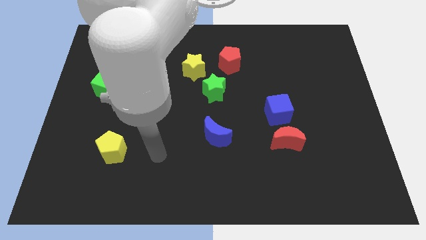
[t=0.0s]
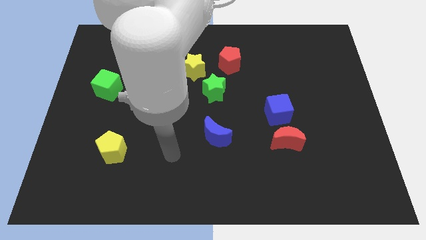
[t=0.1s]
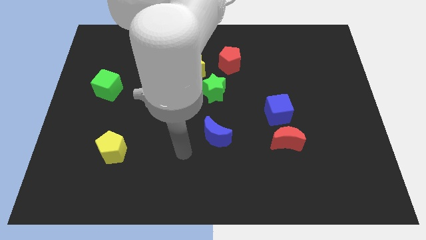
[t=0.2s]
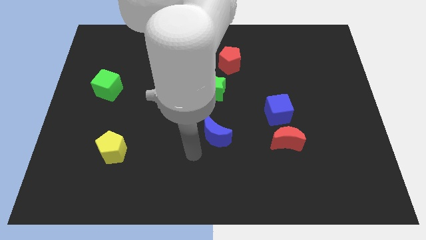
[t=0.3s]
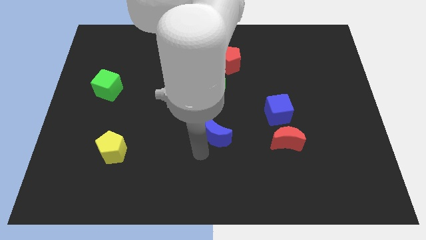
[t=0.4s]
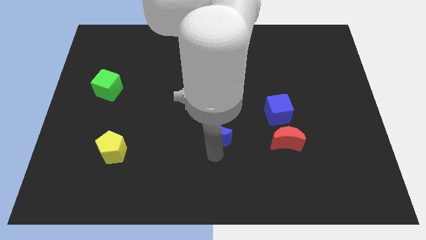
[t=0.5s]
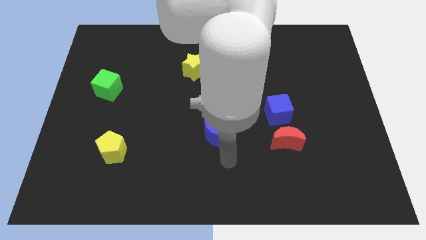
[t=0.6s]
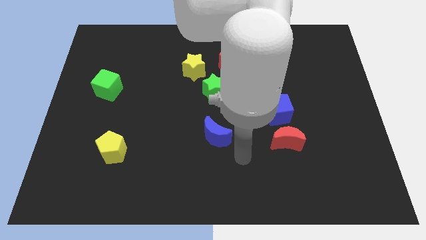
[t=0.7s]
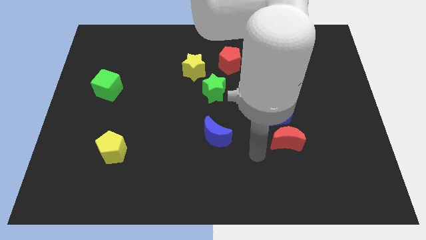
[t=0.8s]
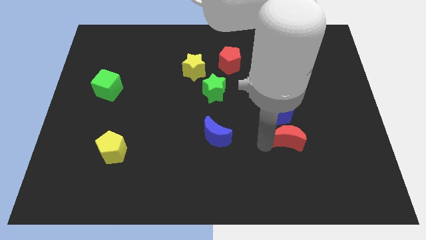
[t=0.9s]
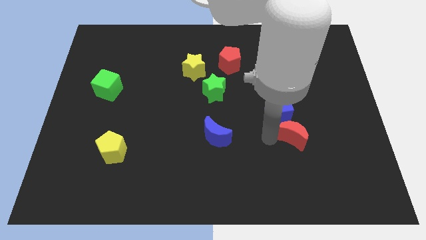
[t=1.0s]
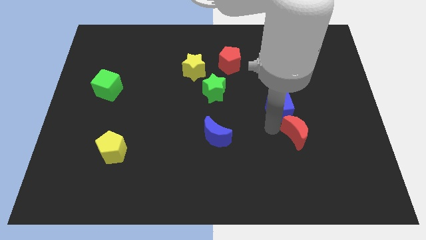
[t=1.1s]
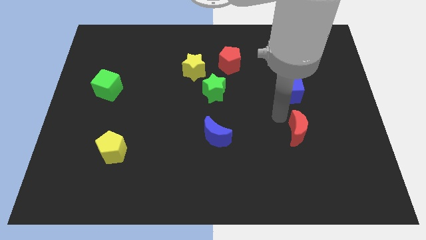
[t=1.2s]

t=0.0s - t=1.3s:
separate the red moon from the blue cube

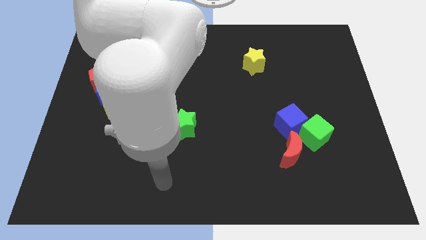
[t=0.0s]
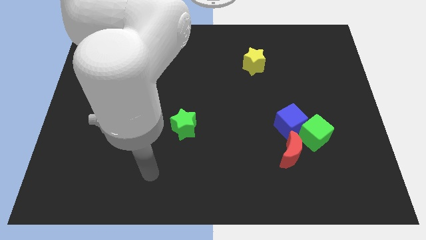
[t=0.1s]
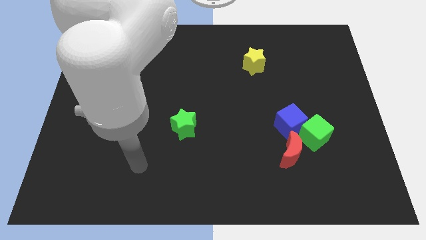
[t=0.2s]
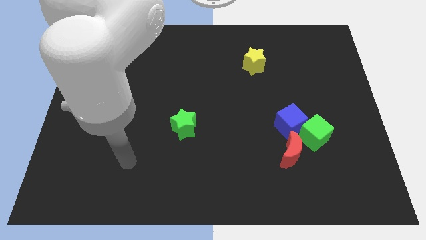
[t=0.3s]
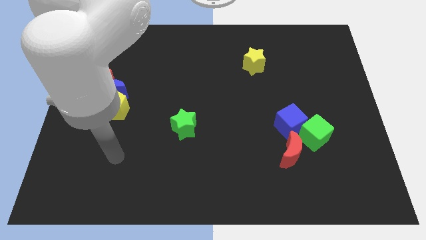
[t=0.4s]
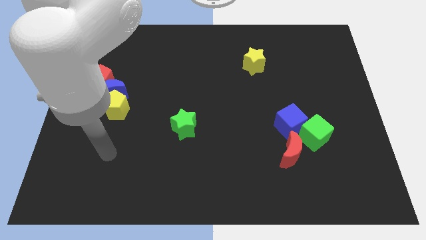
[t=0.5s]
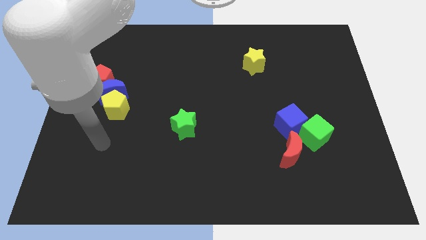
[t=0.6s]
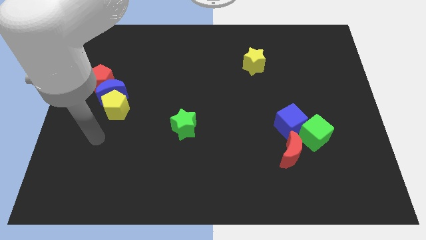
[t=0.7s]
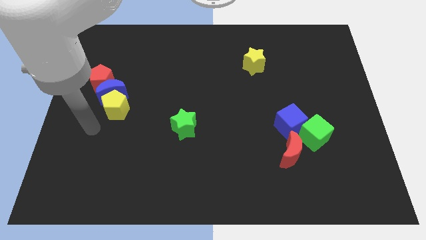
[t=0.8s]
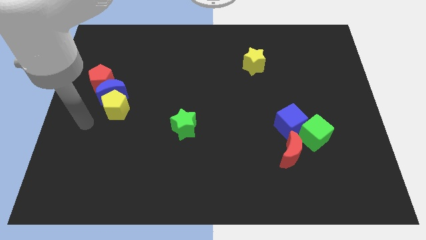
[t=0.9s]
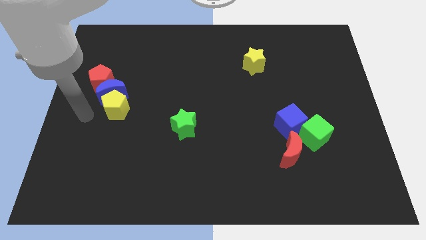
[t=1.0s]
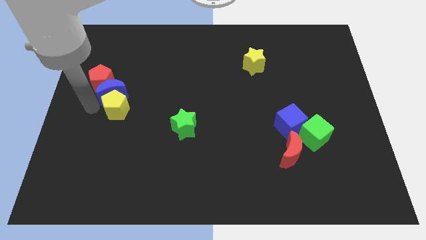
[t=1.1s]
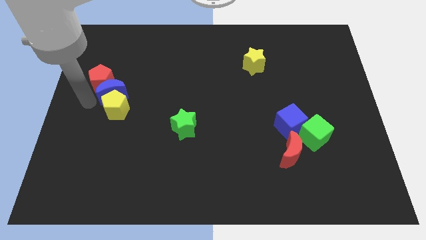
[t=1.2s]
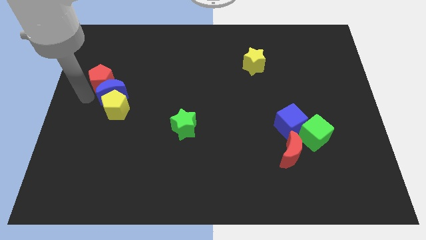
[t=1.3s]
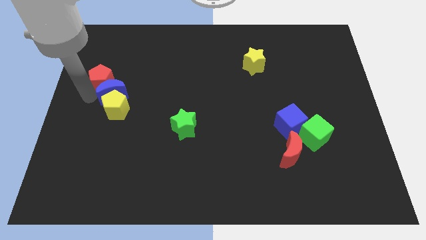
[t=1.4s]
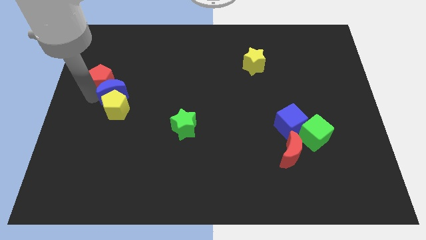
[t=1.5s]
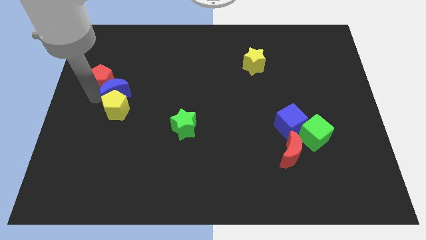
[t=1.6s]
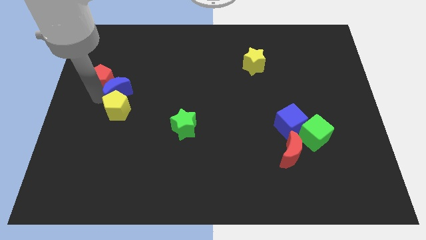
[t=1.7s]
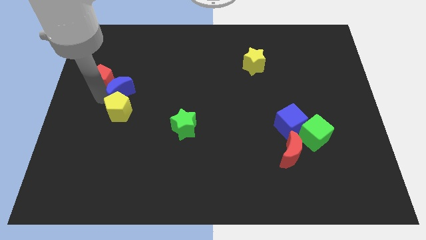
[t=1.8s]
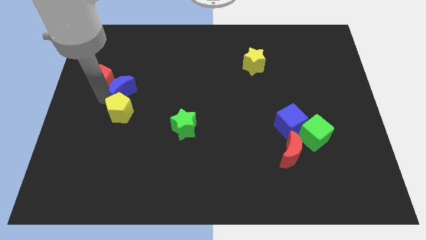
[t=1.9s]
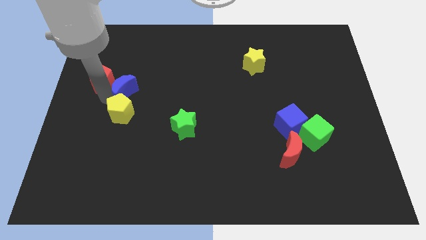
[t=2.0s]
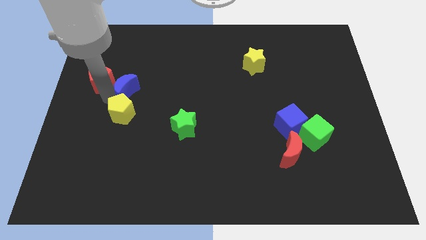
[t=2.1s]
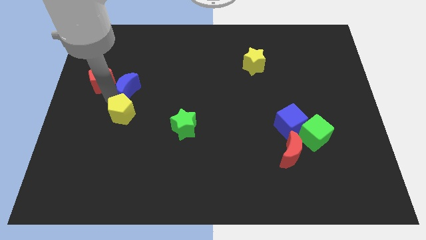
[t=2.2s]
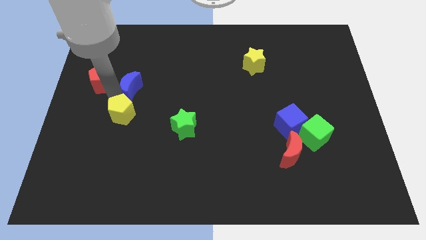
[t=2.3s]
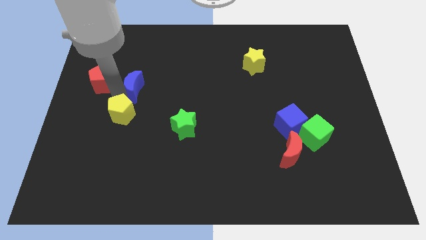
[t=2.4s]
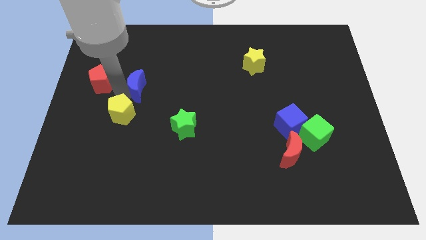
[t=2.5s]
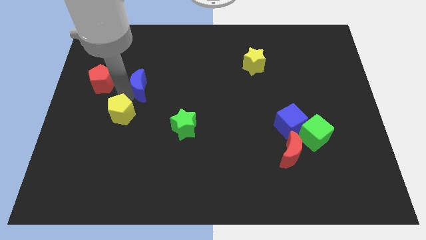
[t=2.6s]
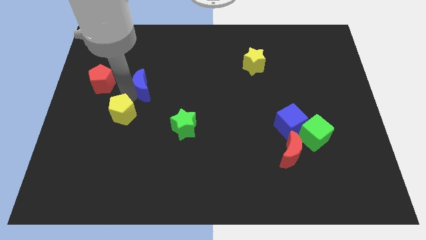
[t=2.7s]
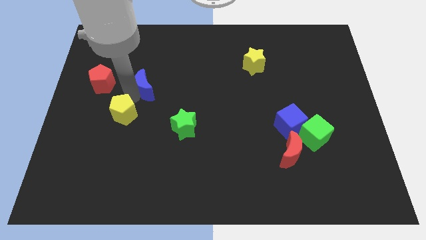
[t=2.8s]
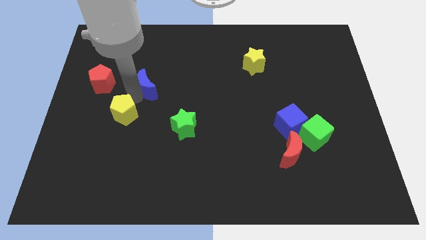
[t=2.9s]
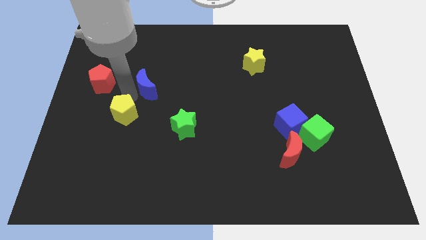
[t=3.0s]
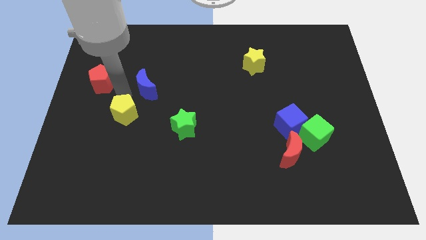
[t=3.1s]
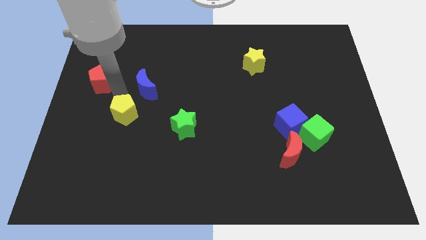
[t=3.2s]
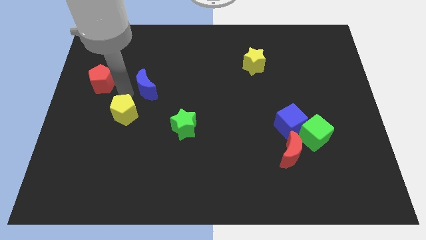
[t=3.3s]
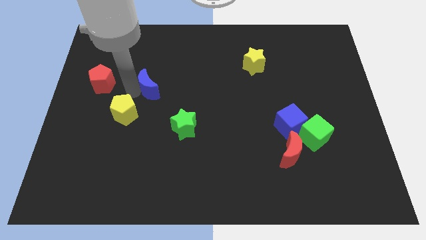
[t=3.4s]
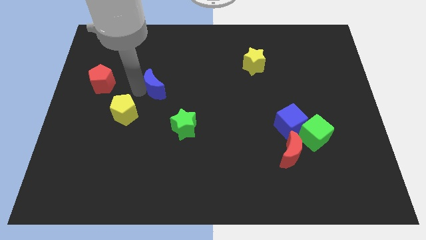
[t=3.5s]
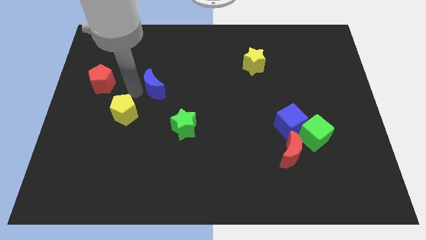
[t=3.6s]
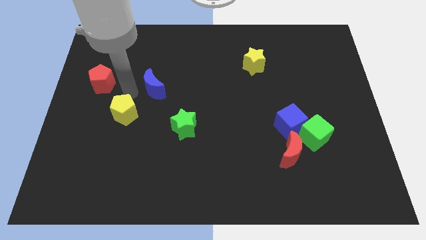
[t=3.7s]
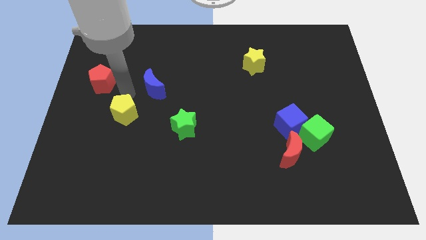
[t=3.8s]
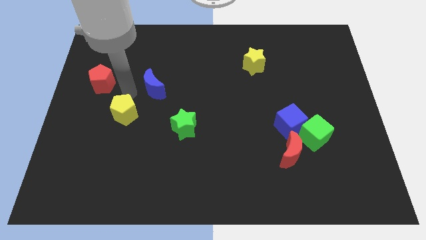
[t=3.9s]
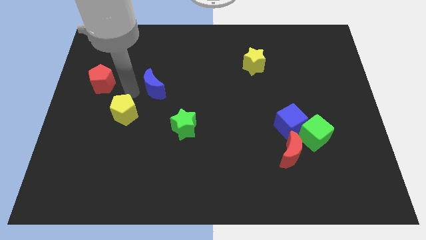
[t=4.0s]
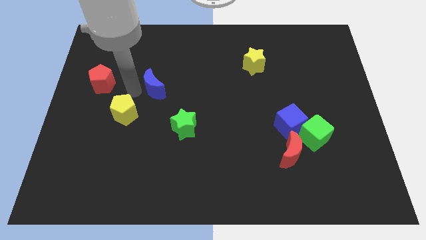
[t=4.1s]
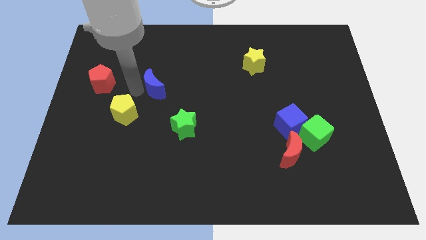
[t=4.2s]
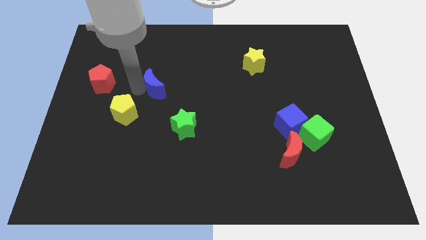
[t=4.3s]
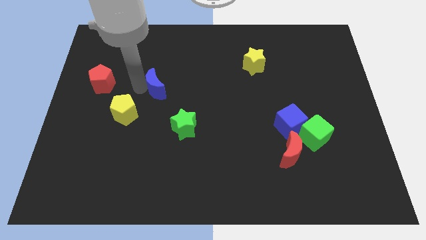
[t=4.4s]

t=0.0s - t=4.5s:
pull the blue moon apart from the yellow pentagon and red pentagon

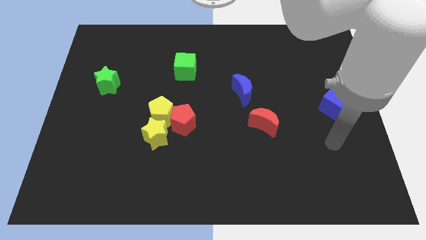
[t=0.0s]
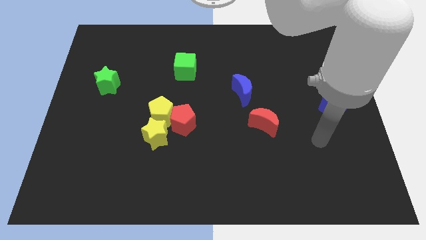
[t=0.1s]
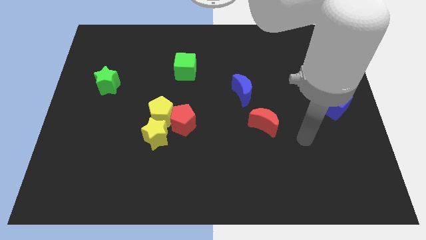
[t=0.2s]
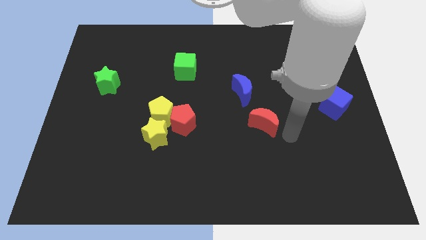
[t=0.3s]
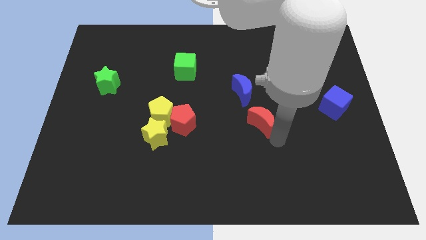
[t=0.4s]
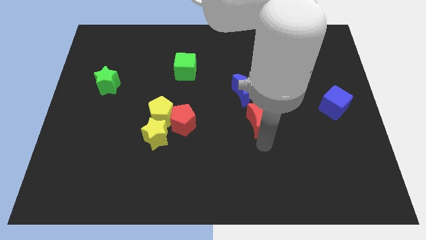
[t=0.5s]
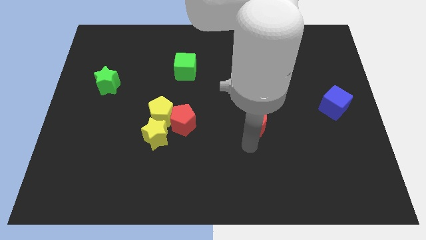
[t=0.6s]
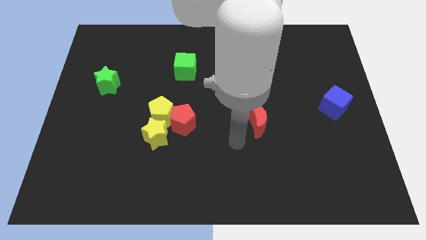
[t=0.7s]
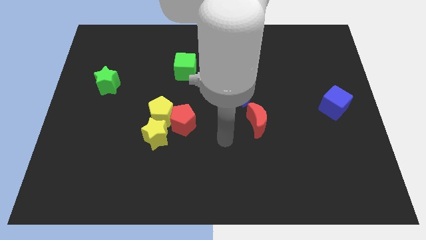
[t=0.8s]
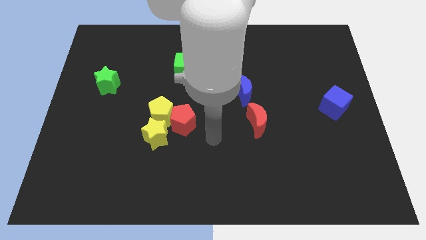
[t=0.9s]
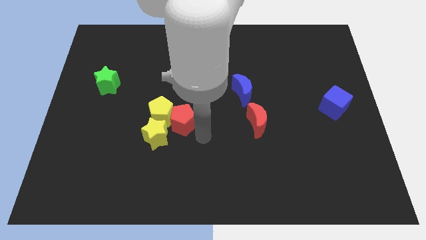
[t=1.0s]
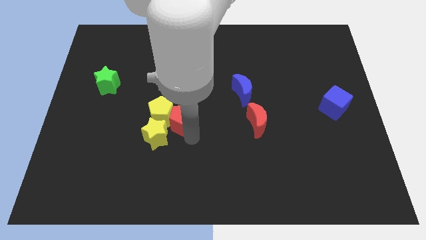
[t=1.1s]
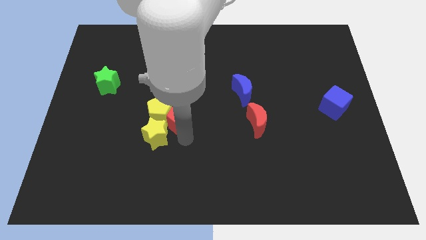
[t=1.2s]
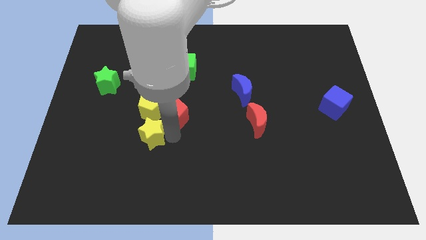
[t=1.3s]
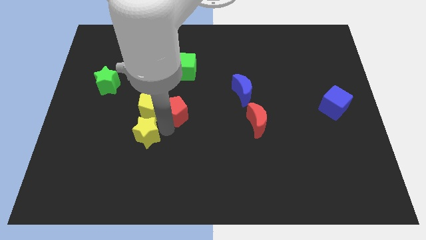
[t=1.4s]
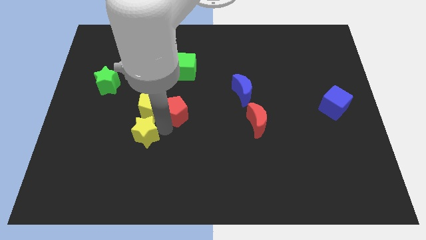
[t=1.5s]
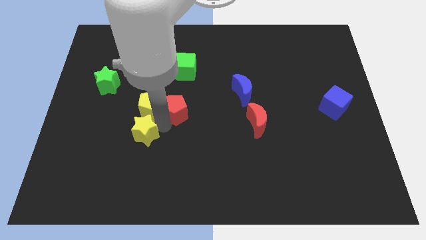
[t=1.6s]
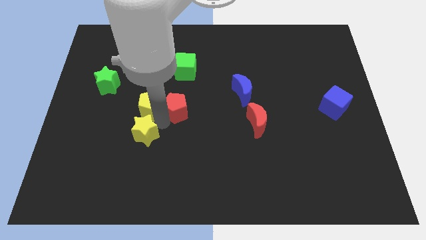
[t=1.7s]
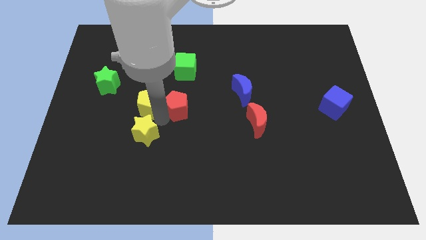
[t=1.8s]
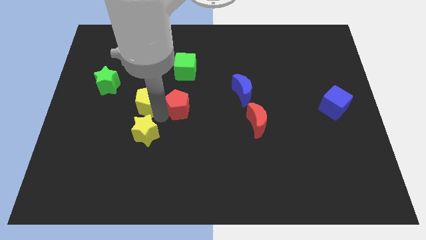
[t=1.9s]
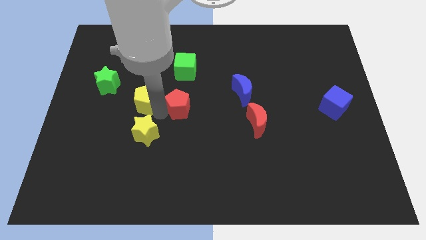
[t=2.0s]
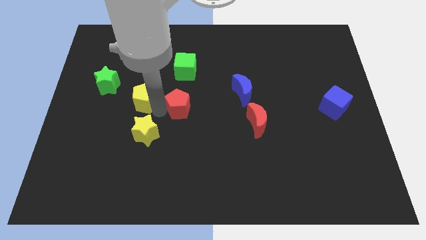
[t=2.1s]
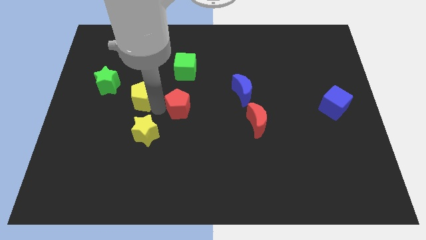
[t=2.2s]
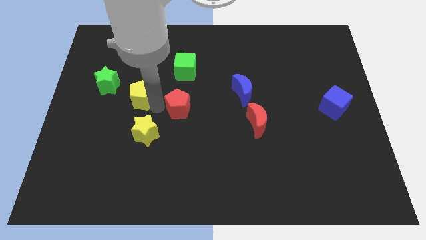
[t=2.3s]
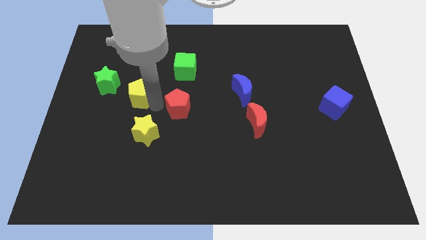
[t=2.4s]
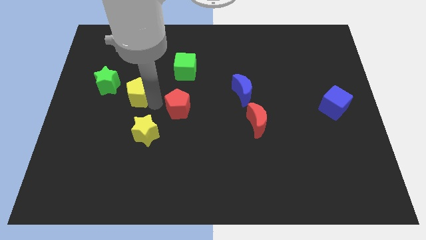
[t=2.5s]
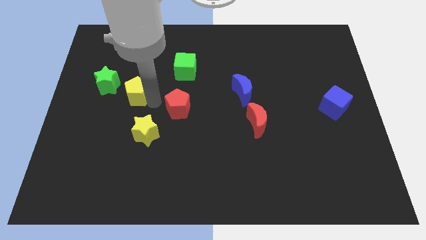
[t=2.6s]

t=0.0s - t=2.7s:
pull the yellow pentagon apart from the red pentagon and yellow star

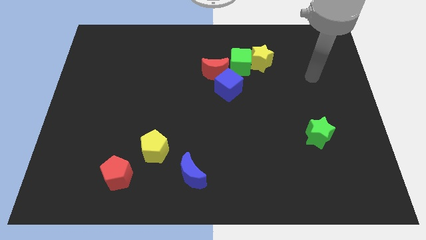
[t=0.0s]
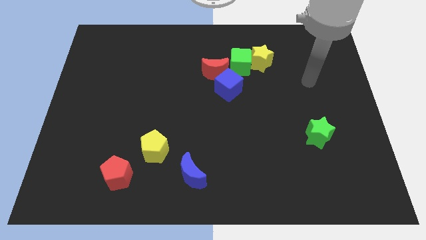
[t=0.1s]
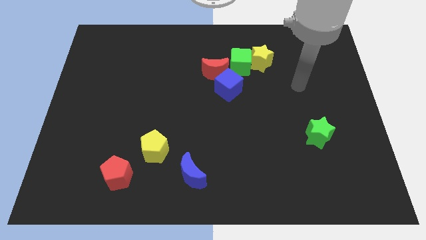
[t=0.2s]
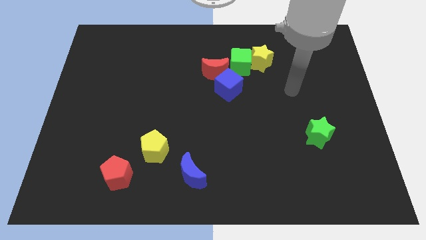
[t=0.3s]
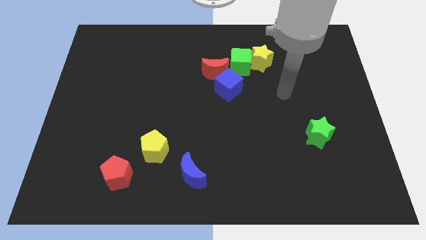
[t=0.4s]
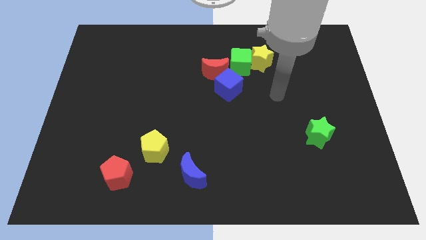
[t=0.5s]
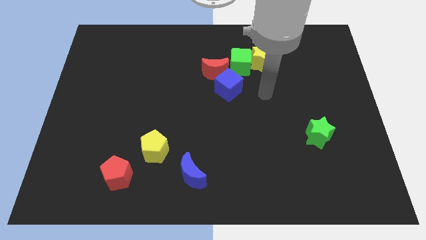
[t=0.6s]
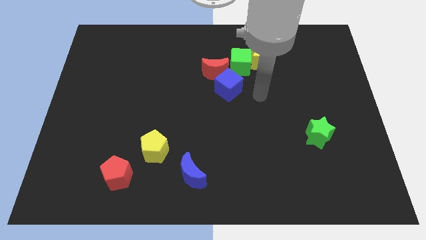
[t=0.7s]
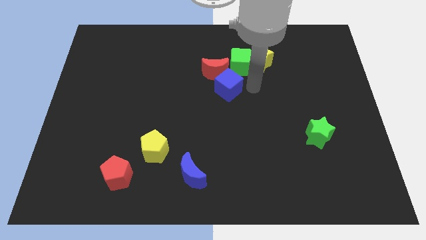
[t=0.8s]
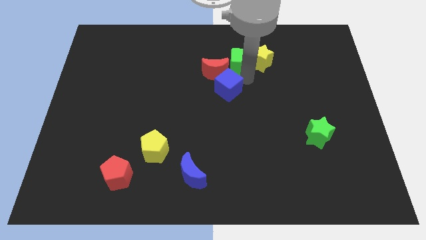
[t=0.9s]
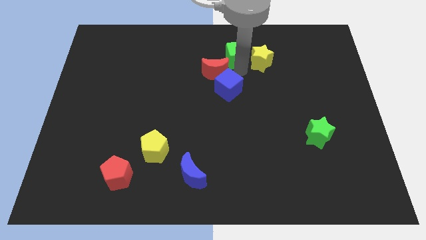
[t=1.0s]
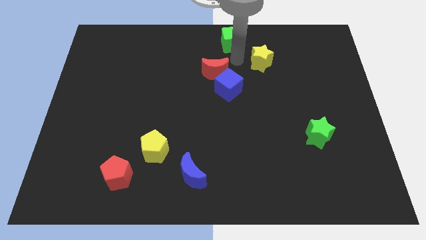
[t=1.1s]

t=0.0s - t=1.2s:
separate the yellow star from the green cube
